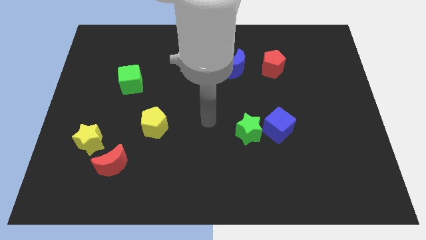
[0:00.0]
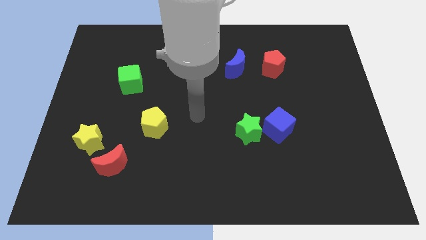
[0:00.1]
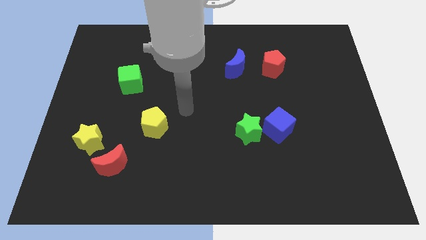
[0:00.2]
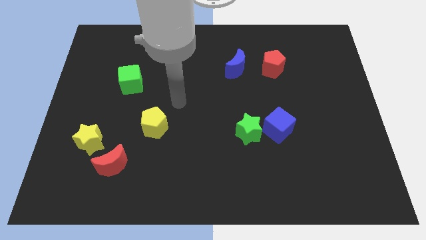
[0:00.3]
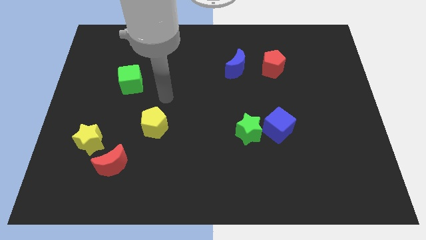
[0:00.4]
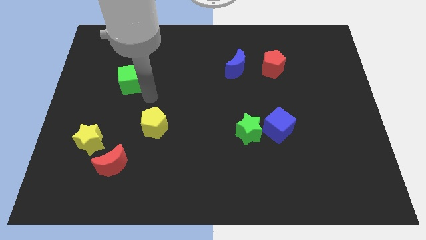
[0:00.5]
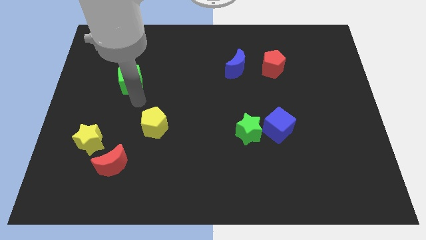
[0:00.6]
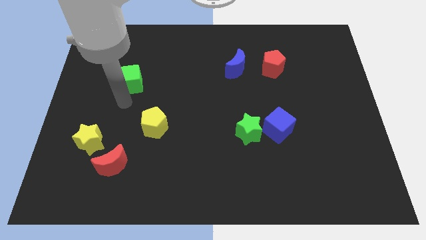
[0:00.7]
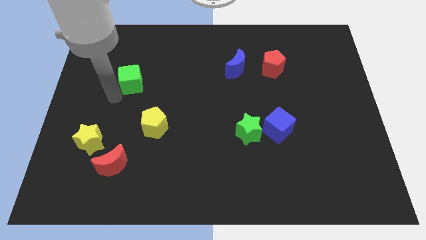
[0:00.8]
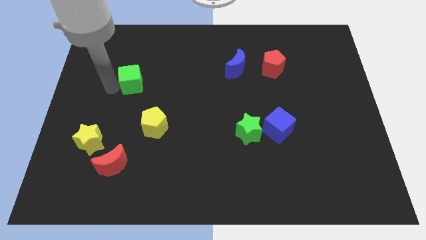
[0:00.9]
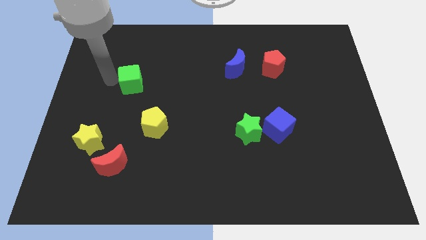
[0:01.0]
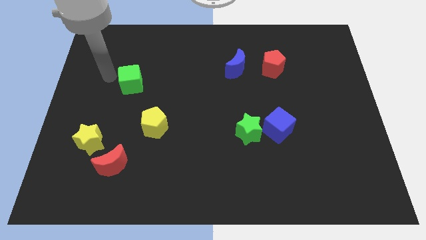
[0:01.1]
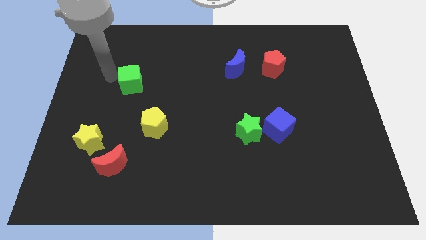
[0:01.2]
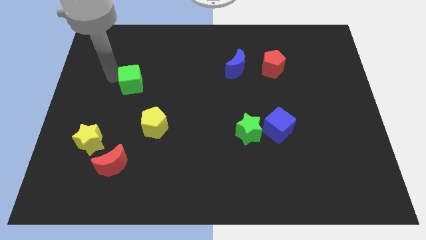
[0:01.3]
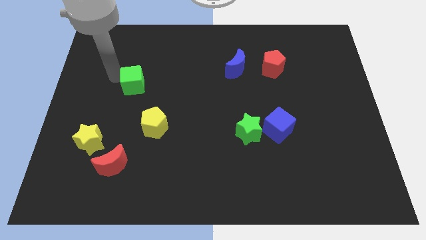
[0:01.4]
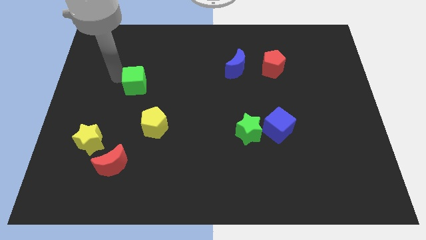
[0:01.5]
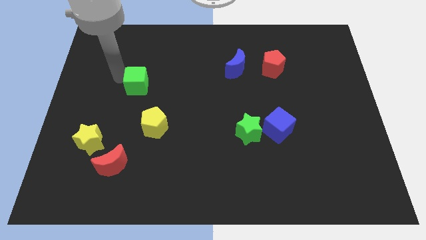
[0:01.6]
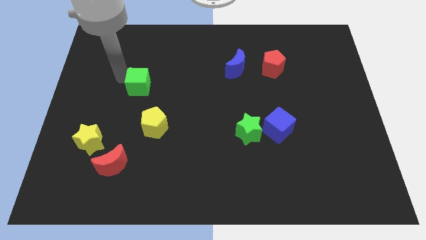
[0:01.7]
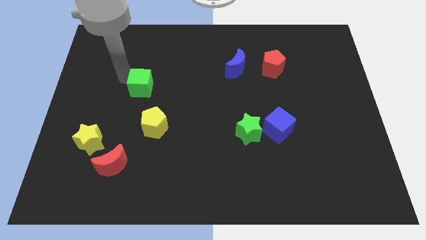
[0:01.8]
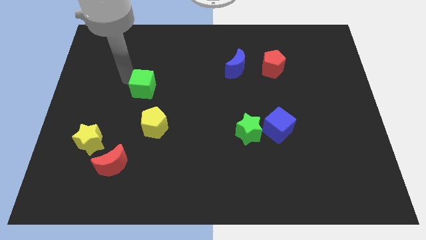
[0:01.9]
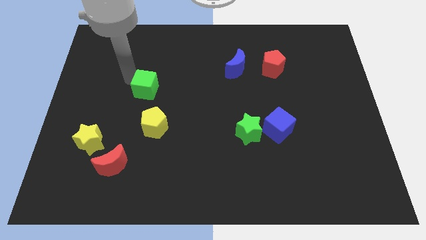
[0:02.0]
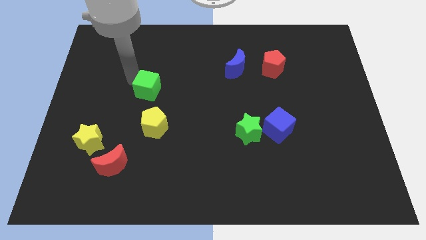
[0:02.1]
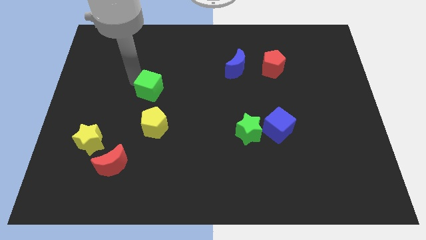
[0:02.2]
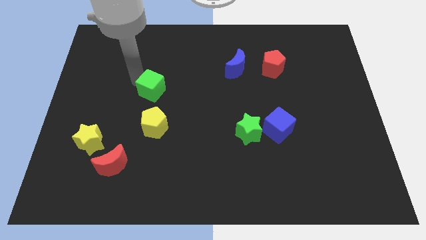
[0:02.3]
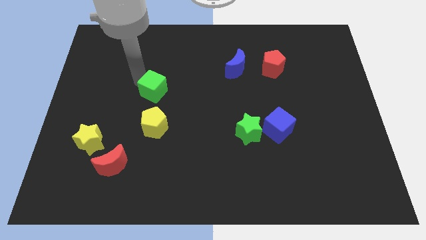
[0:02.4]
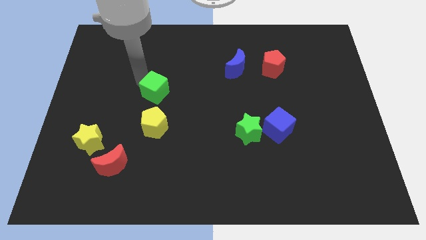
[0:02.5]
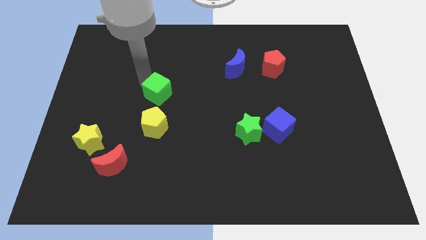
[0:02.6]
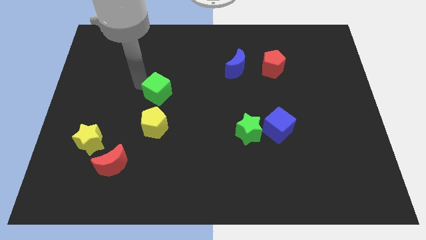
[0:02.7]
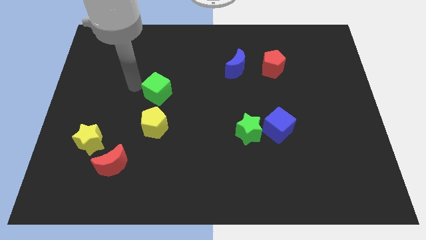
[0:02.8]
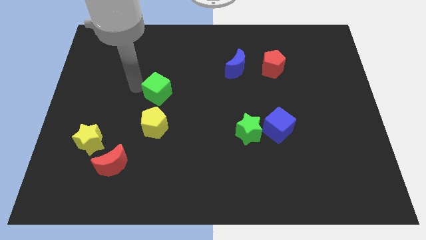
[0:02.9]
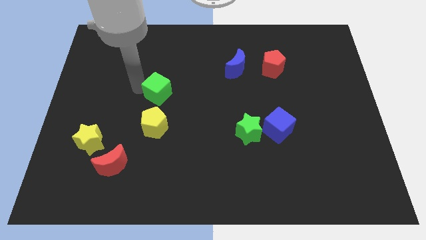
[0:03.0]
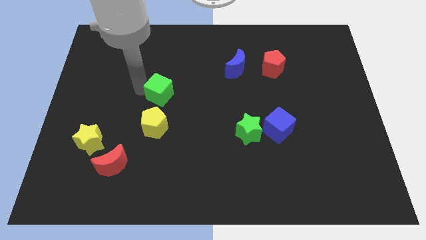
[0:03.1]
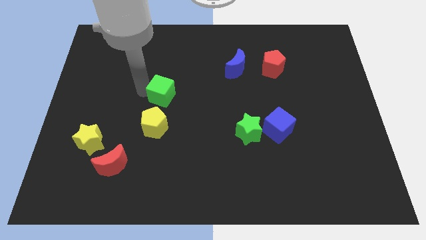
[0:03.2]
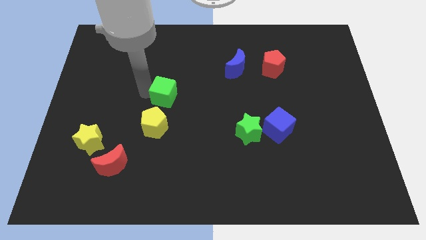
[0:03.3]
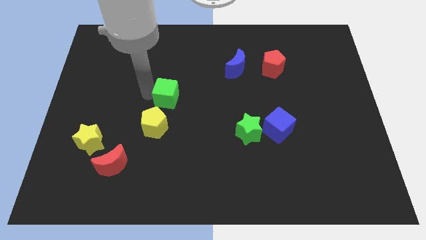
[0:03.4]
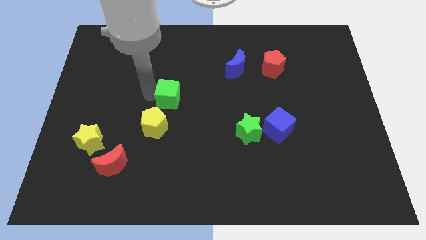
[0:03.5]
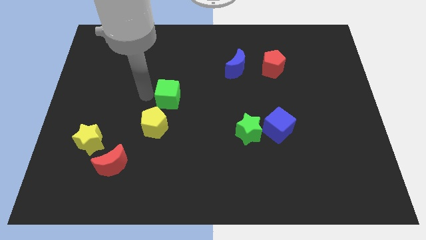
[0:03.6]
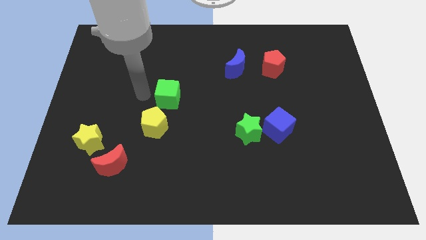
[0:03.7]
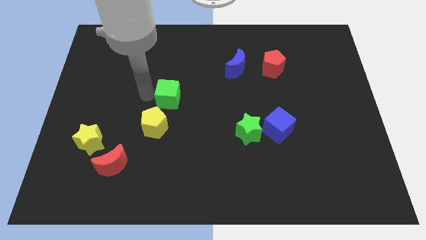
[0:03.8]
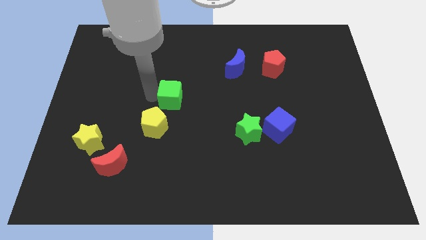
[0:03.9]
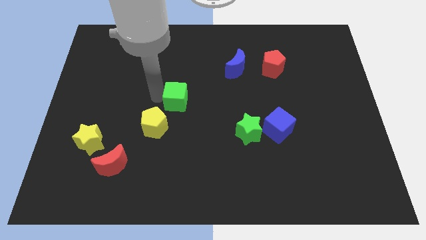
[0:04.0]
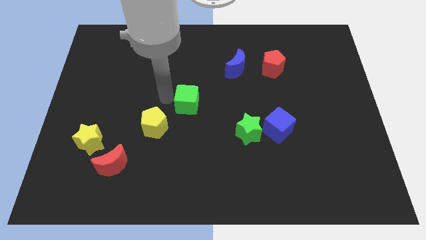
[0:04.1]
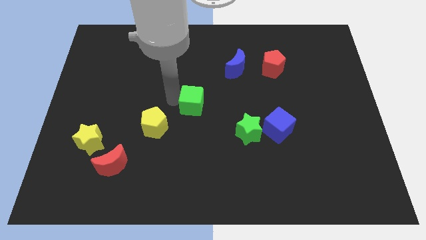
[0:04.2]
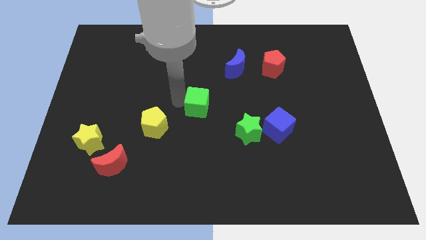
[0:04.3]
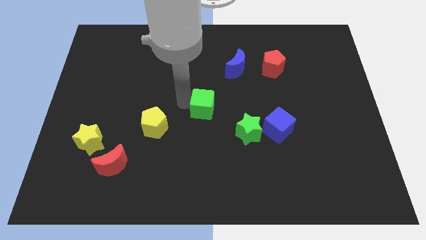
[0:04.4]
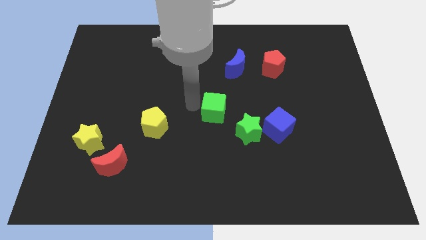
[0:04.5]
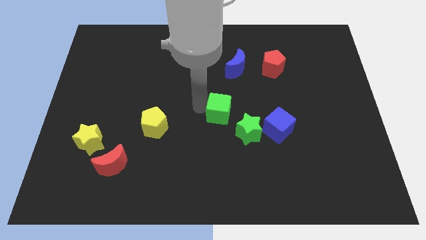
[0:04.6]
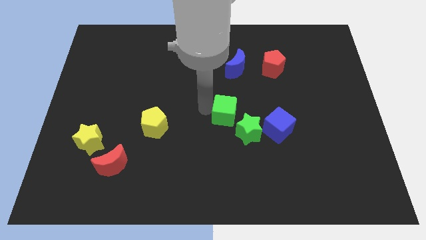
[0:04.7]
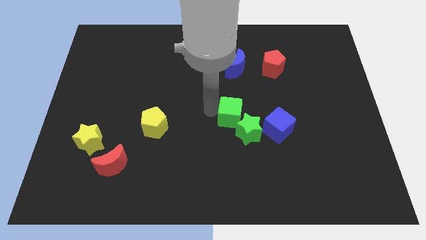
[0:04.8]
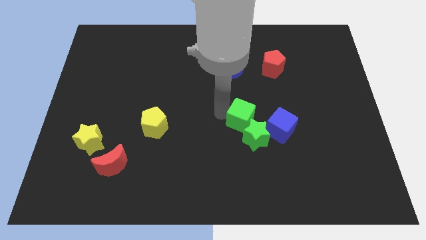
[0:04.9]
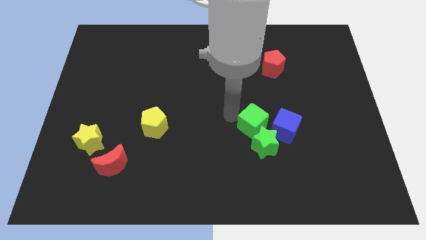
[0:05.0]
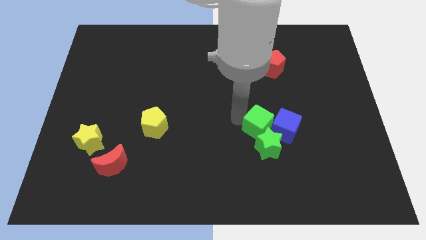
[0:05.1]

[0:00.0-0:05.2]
move the green cube close to the blue cube

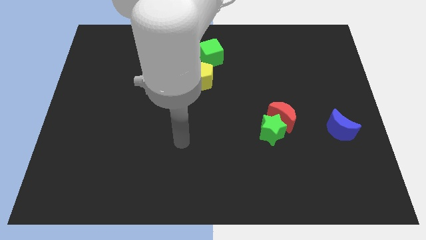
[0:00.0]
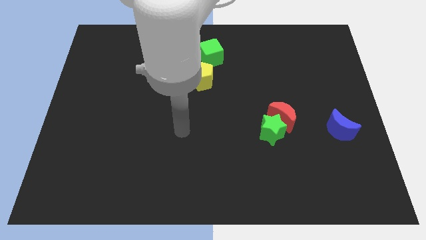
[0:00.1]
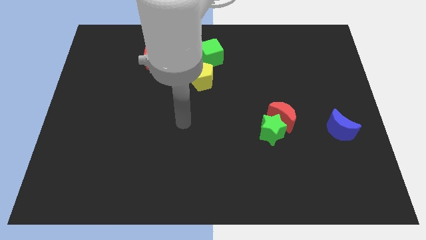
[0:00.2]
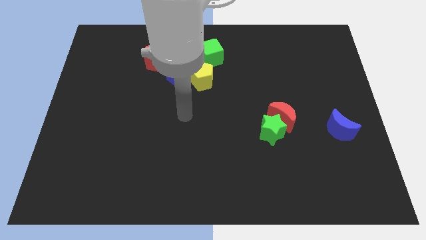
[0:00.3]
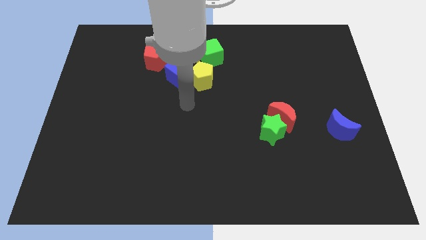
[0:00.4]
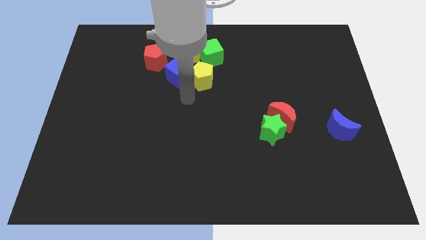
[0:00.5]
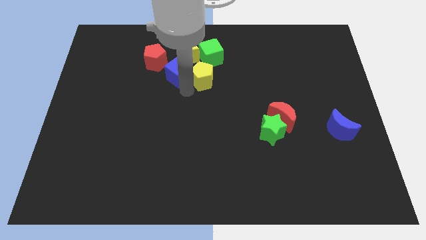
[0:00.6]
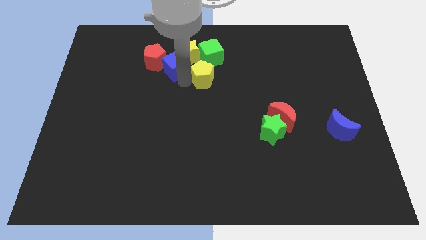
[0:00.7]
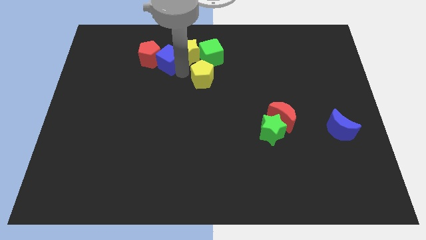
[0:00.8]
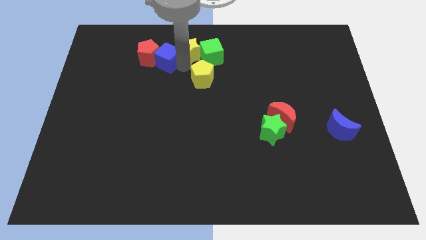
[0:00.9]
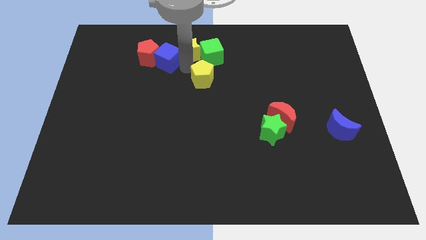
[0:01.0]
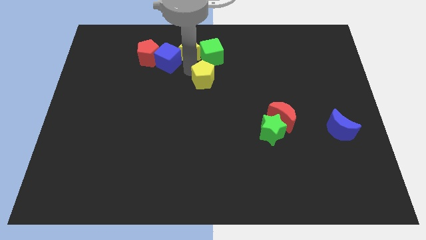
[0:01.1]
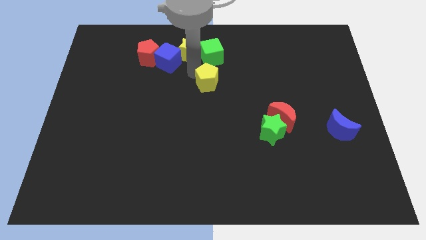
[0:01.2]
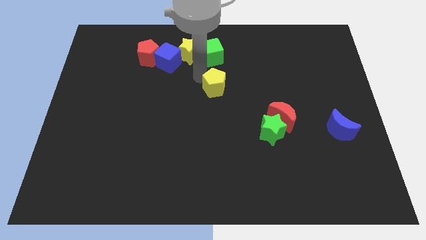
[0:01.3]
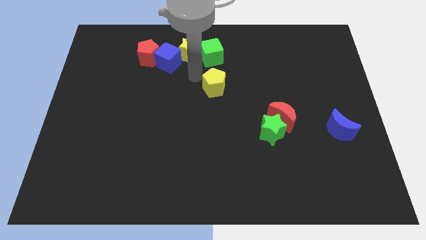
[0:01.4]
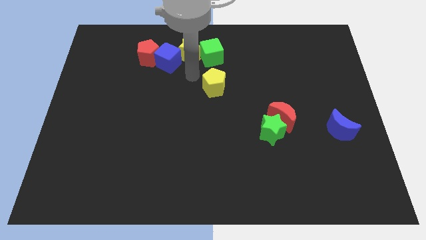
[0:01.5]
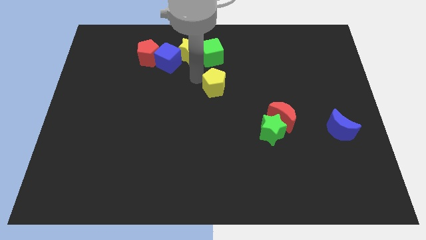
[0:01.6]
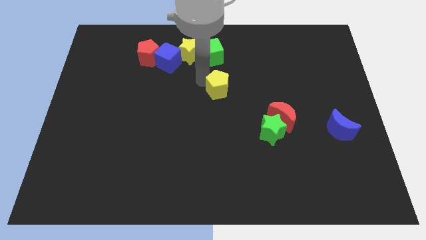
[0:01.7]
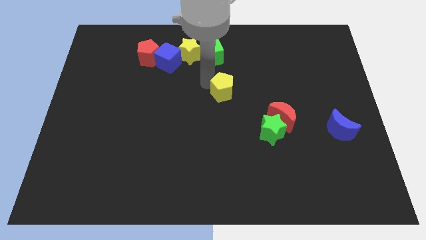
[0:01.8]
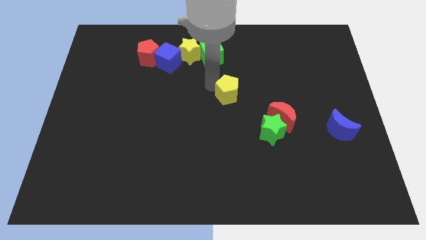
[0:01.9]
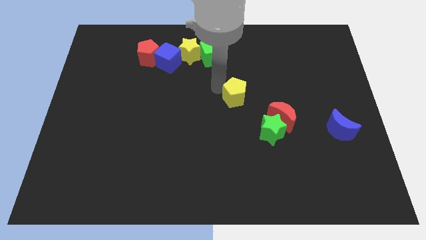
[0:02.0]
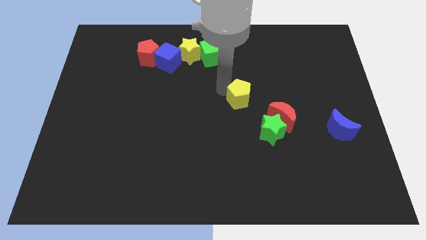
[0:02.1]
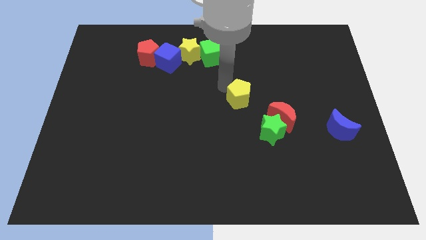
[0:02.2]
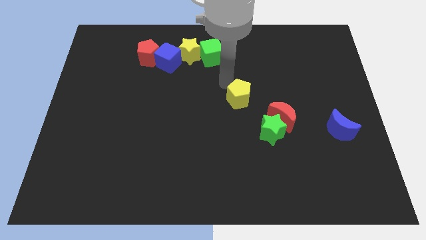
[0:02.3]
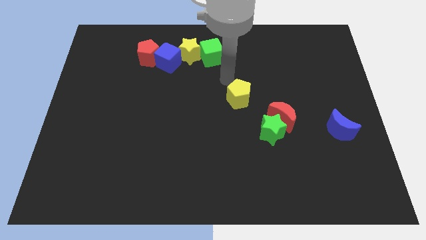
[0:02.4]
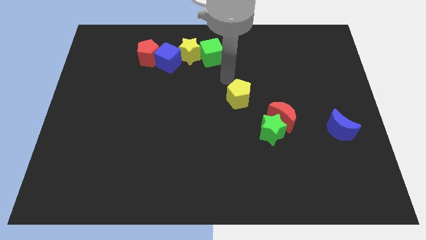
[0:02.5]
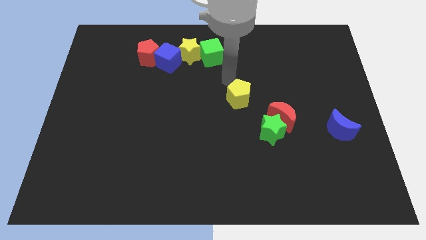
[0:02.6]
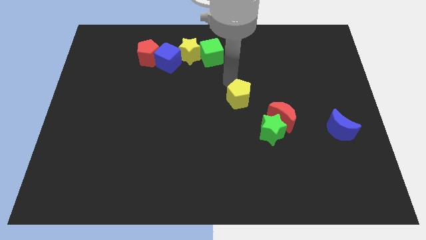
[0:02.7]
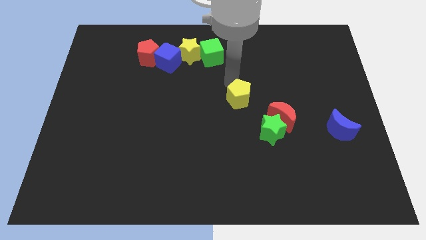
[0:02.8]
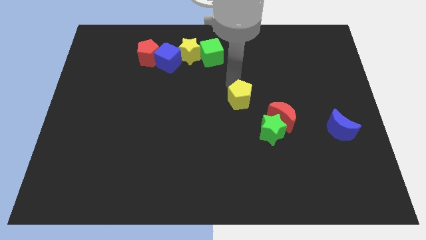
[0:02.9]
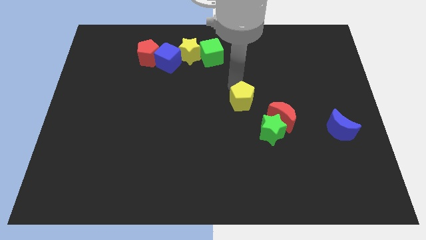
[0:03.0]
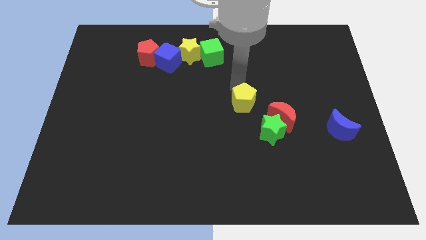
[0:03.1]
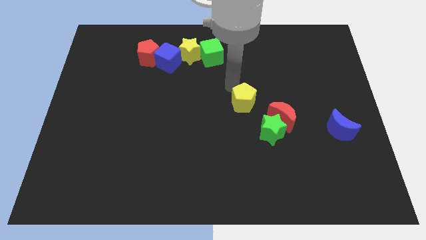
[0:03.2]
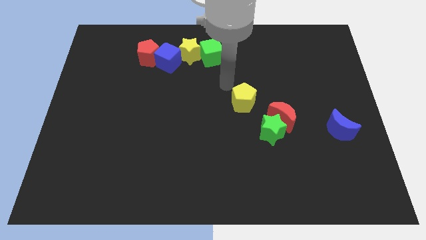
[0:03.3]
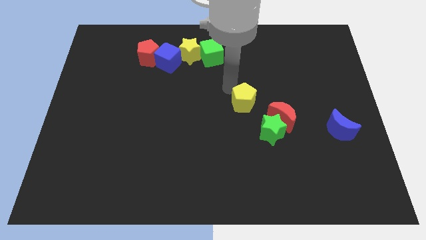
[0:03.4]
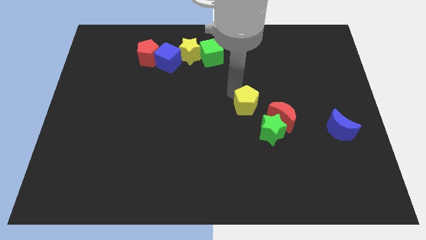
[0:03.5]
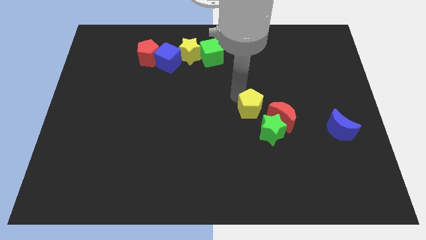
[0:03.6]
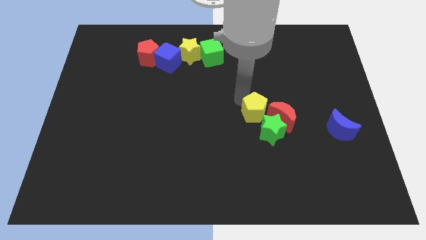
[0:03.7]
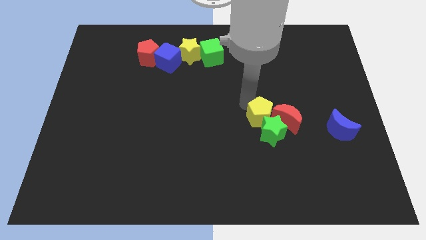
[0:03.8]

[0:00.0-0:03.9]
push the yellow pentagon to the green star
